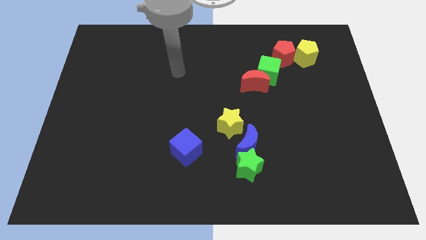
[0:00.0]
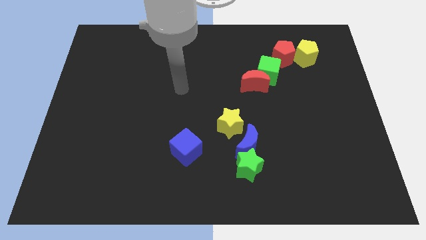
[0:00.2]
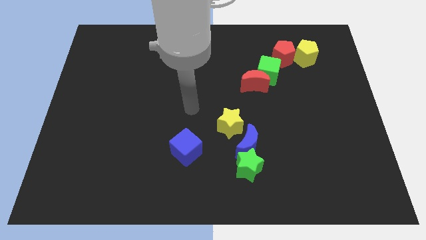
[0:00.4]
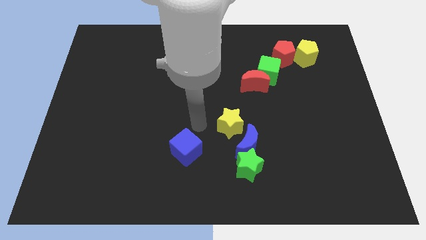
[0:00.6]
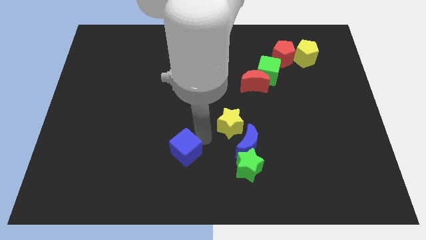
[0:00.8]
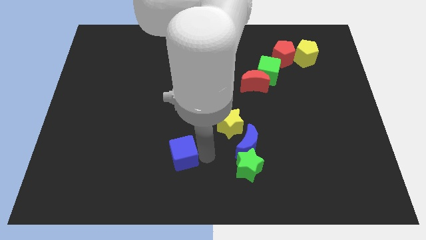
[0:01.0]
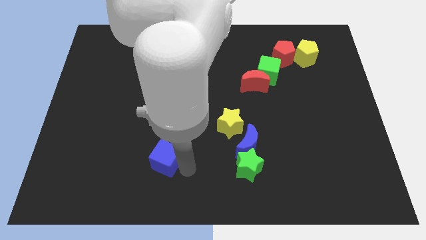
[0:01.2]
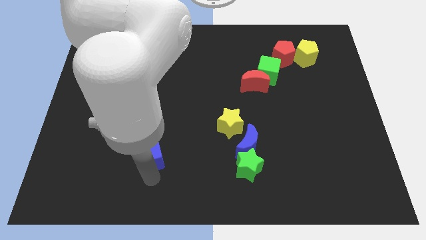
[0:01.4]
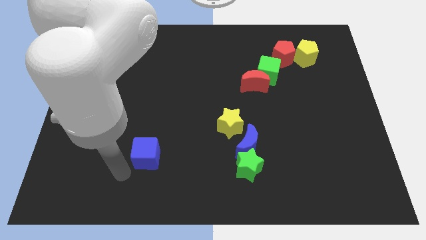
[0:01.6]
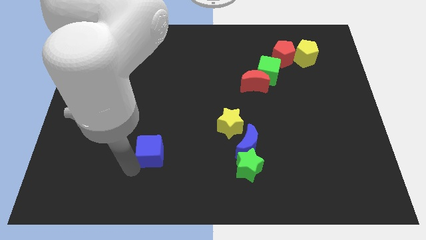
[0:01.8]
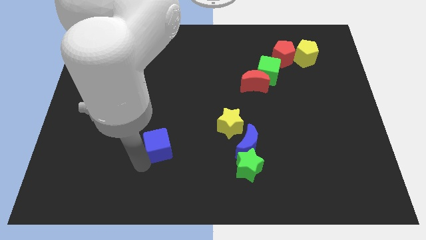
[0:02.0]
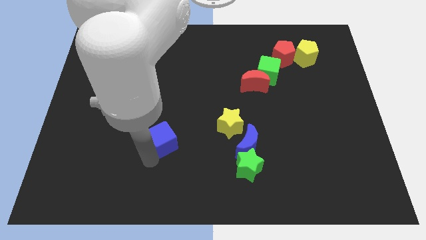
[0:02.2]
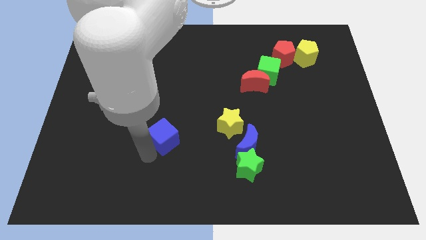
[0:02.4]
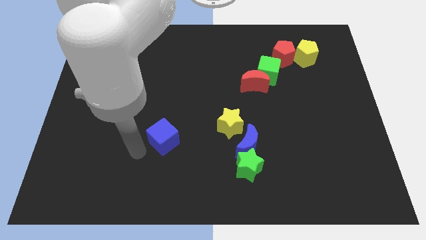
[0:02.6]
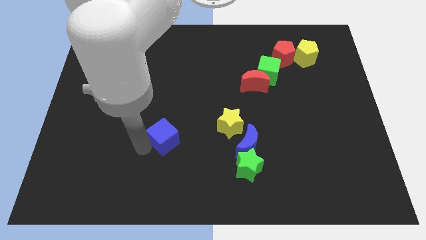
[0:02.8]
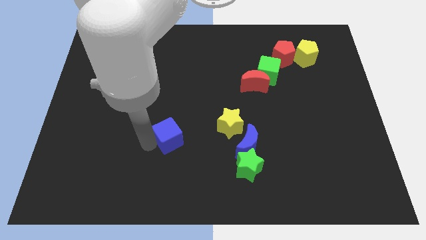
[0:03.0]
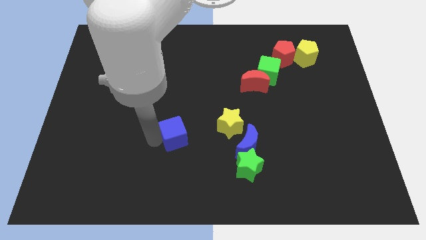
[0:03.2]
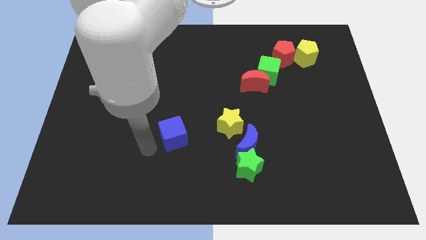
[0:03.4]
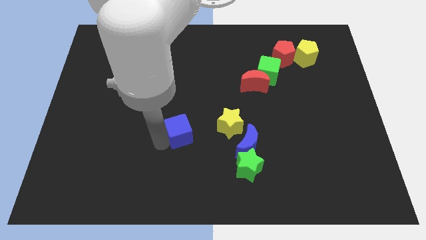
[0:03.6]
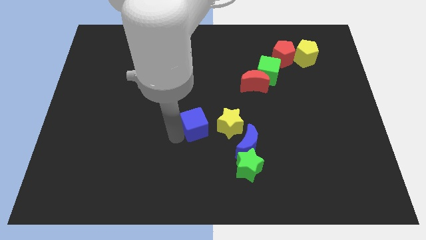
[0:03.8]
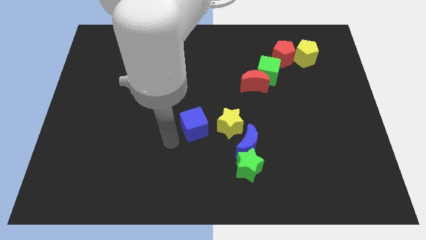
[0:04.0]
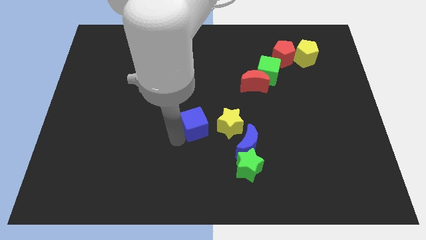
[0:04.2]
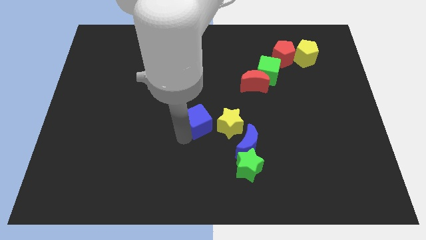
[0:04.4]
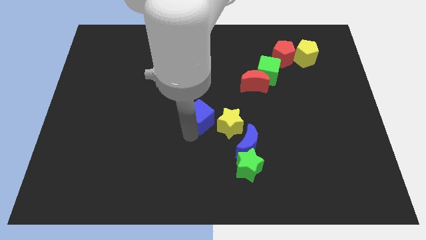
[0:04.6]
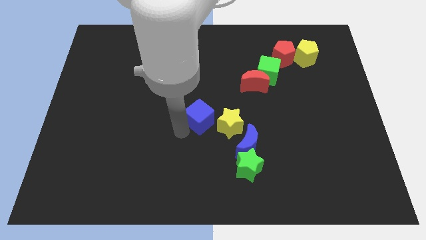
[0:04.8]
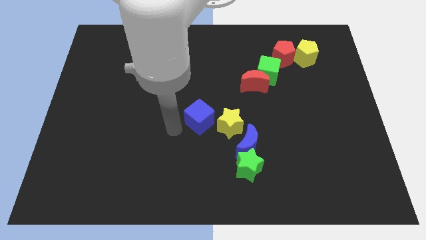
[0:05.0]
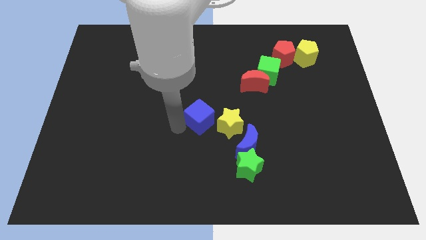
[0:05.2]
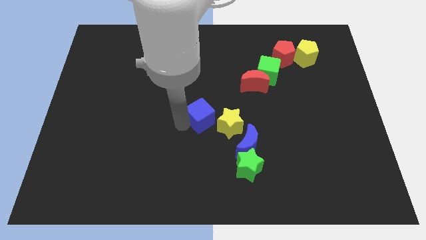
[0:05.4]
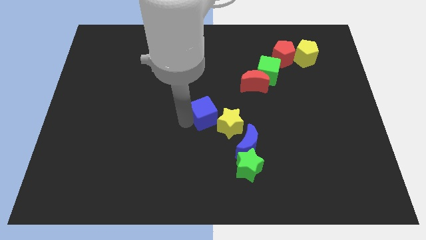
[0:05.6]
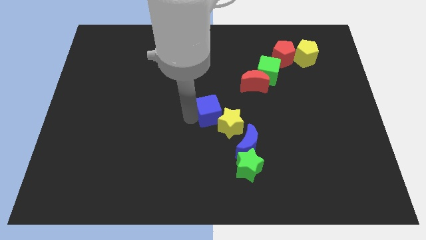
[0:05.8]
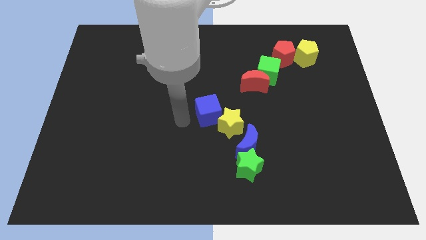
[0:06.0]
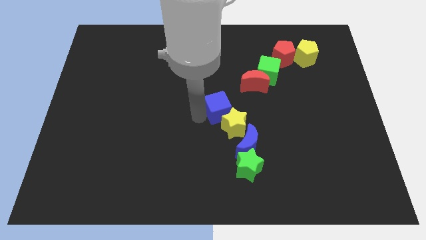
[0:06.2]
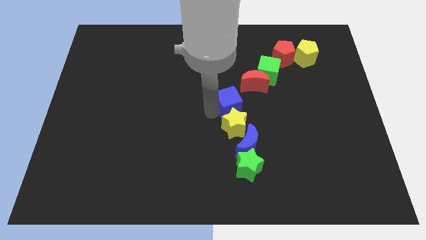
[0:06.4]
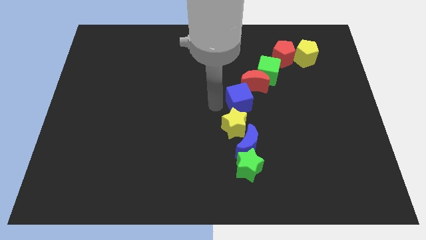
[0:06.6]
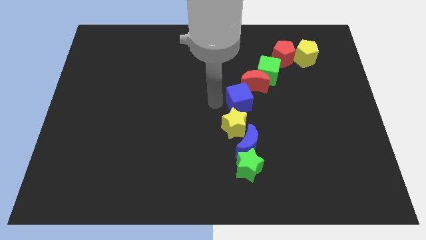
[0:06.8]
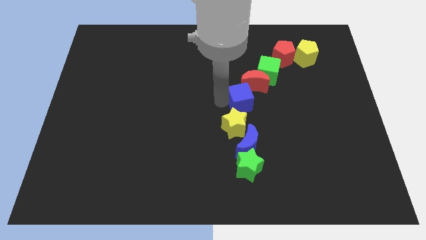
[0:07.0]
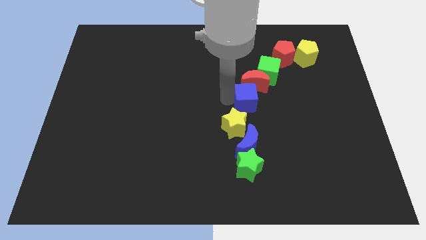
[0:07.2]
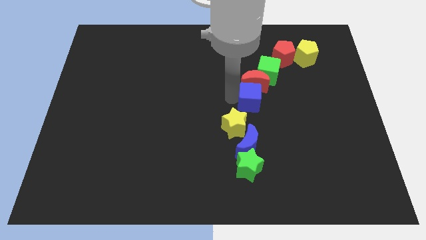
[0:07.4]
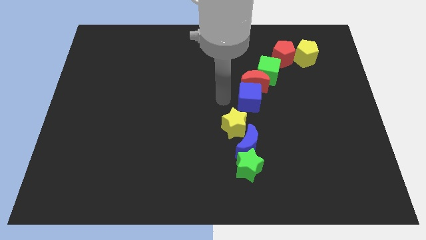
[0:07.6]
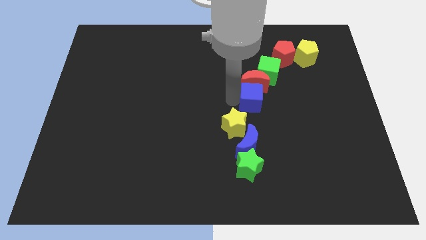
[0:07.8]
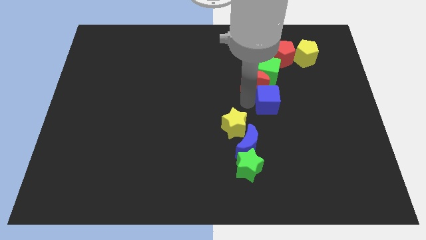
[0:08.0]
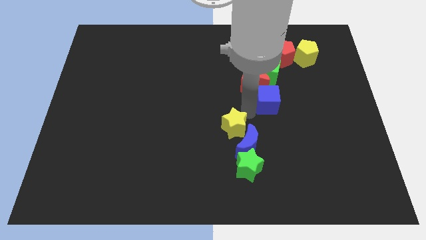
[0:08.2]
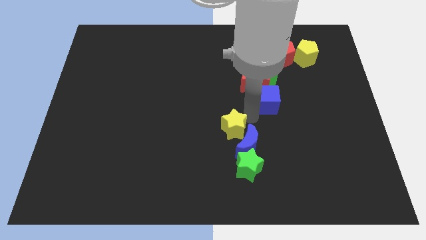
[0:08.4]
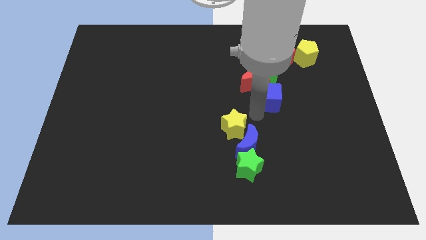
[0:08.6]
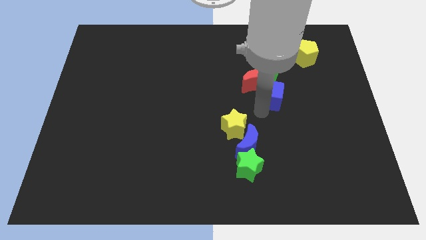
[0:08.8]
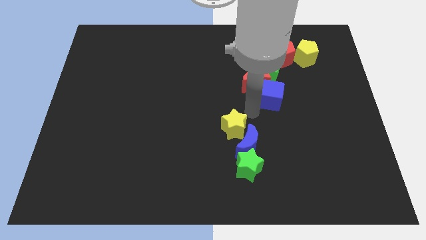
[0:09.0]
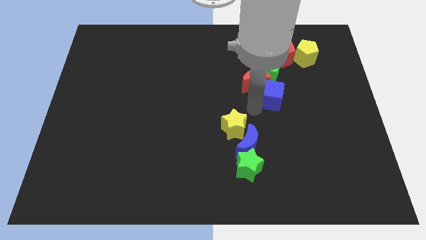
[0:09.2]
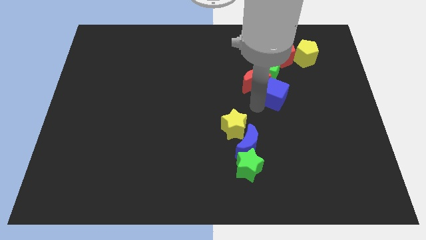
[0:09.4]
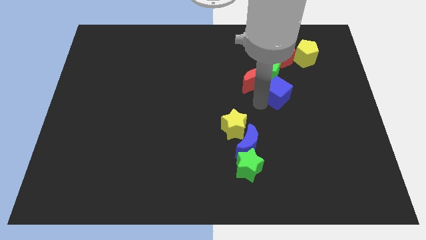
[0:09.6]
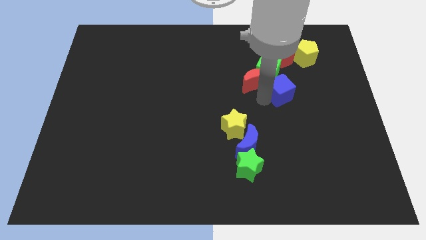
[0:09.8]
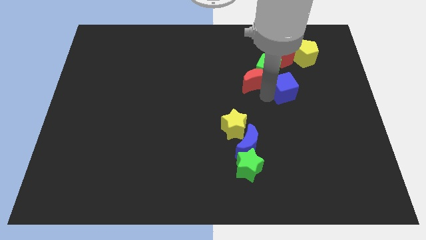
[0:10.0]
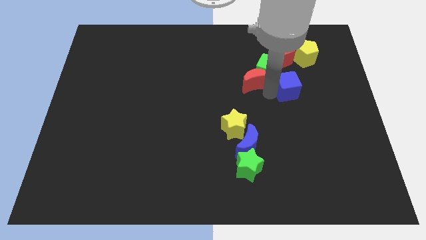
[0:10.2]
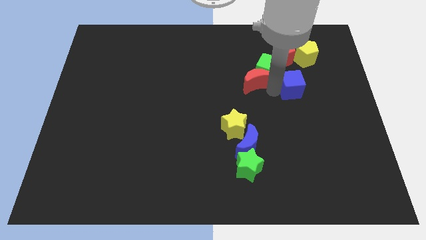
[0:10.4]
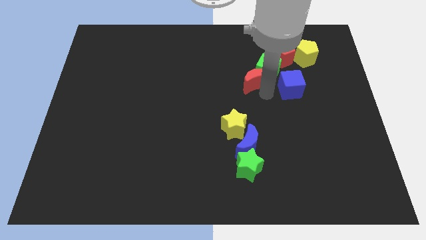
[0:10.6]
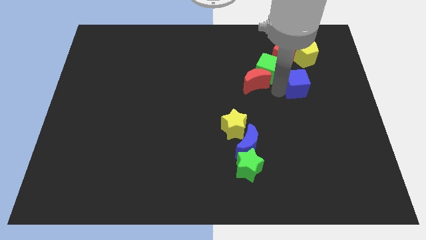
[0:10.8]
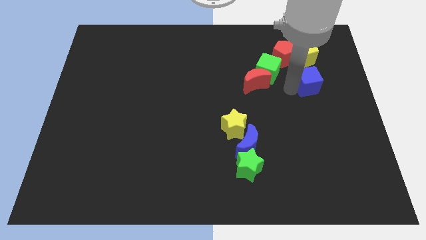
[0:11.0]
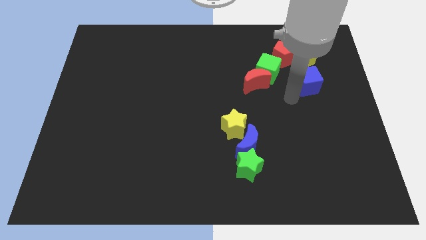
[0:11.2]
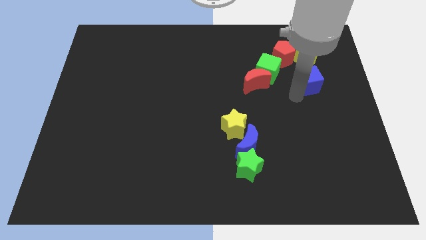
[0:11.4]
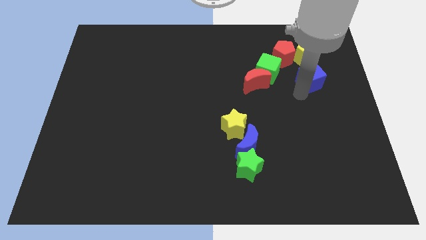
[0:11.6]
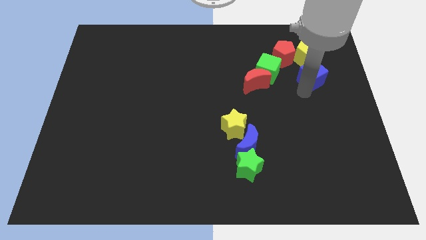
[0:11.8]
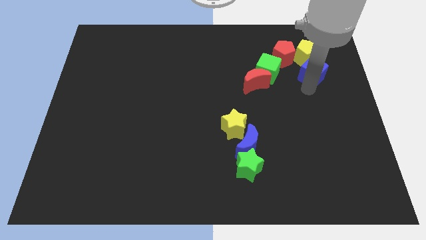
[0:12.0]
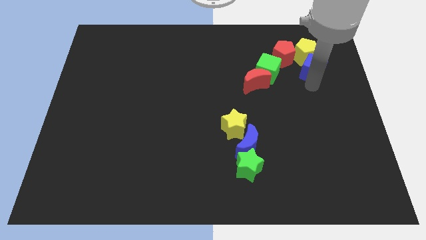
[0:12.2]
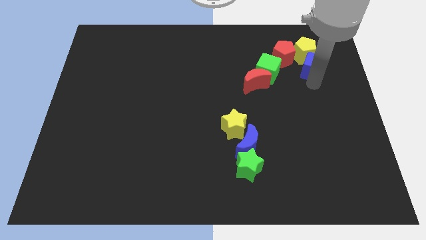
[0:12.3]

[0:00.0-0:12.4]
put the blue cube to the right side of the red pentagon

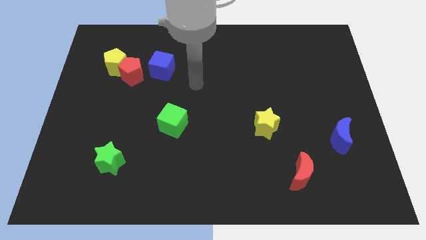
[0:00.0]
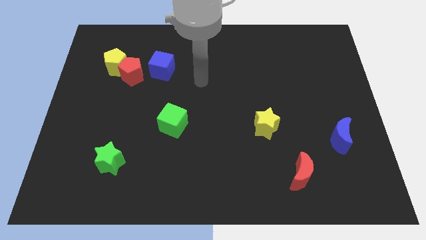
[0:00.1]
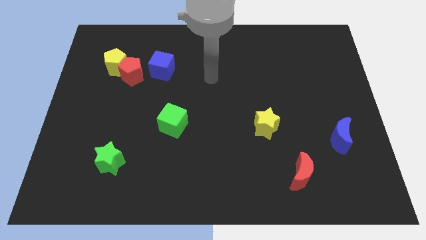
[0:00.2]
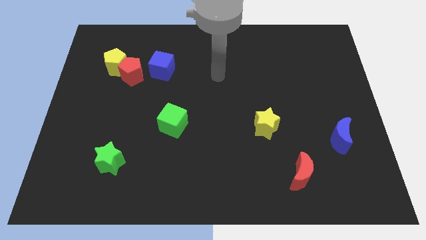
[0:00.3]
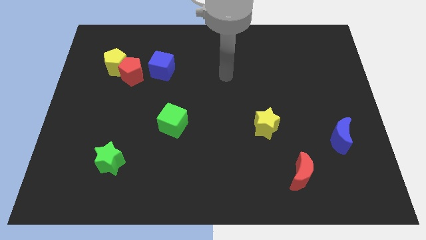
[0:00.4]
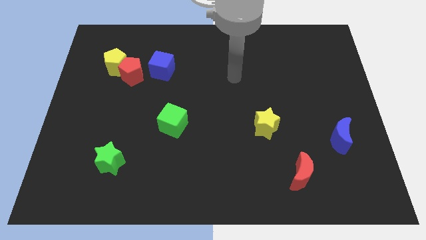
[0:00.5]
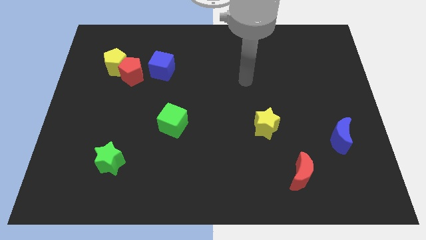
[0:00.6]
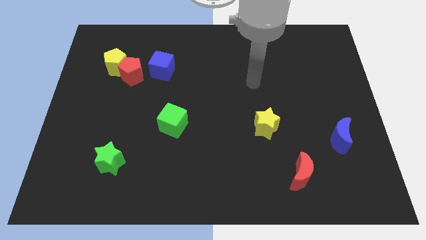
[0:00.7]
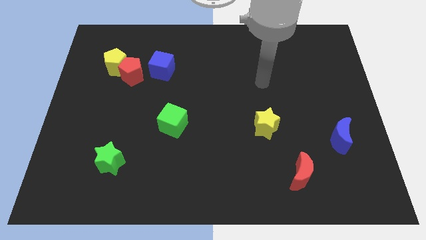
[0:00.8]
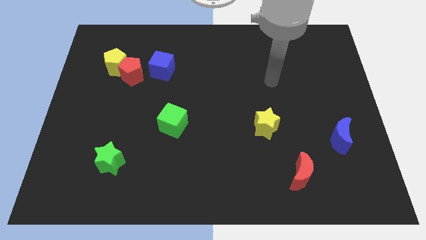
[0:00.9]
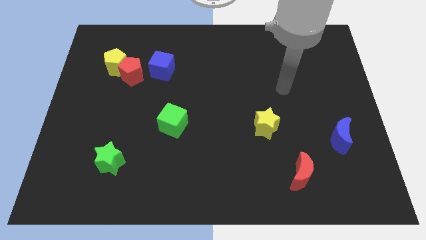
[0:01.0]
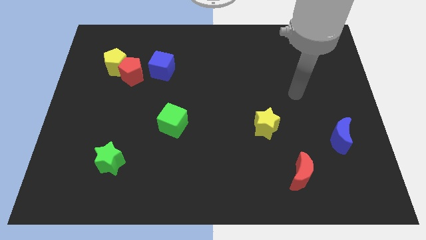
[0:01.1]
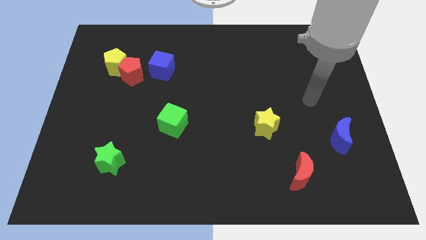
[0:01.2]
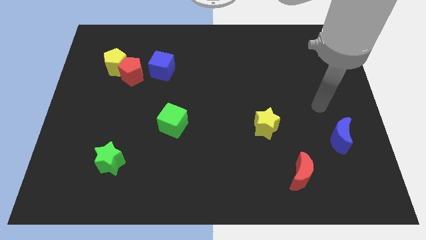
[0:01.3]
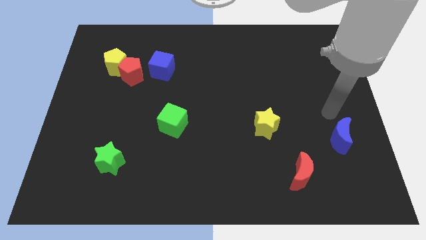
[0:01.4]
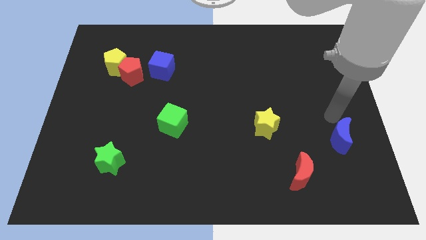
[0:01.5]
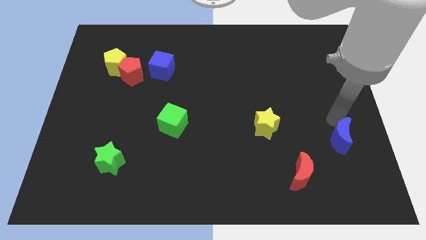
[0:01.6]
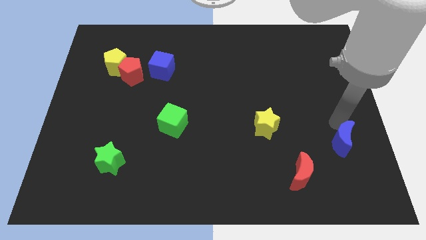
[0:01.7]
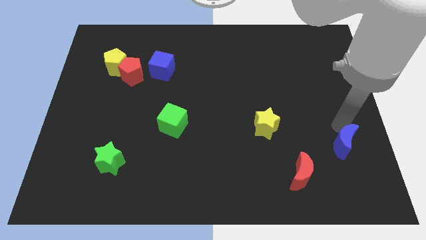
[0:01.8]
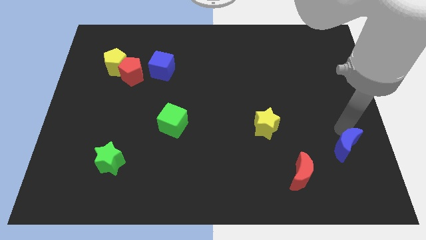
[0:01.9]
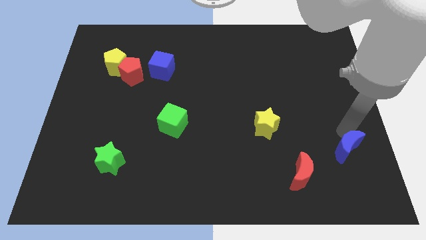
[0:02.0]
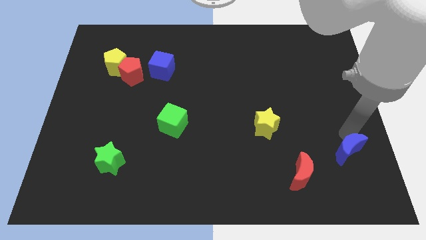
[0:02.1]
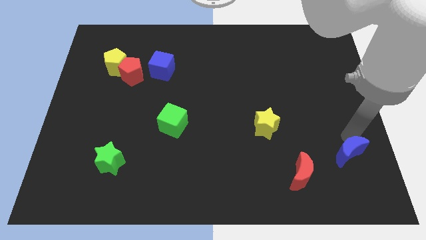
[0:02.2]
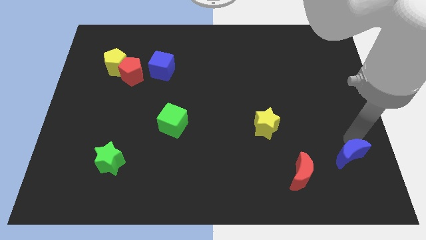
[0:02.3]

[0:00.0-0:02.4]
push the blue moon just right of the red moon
